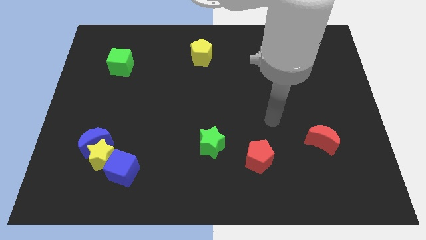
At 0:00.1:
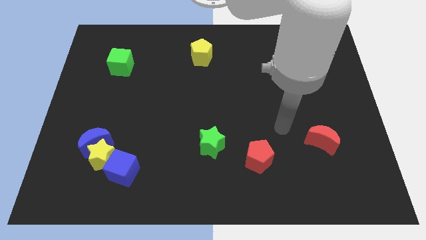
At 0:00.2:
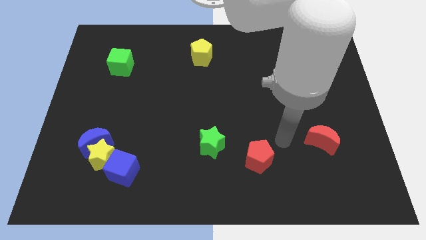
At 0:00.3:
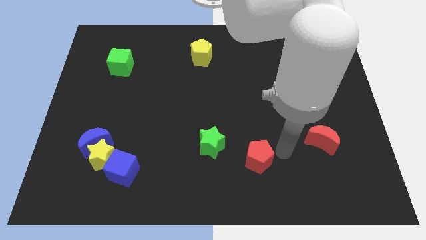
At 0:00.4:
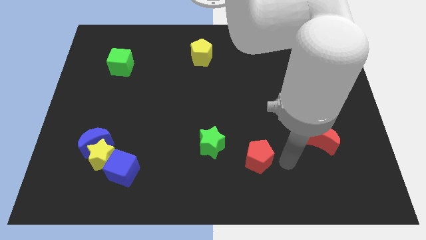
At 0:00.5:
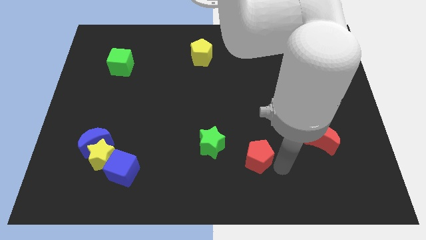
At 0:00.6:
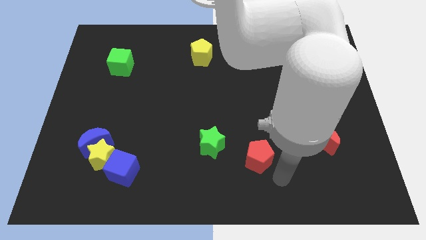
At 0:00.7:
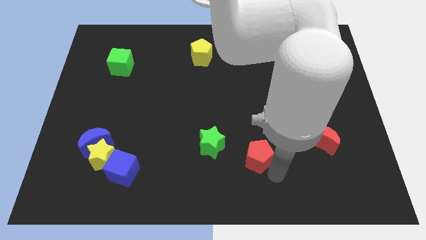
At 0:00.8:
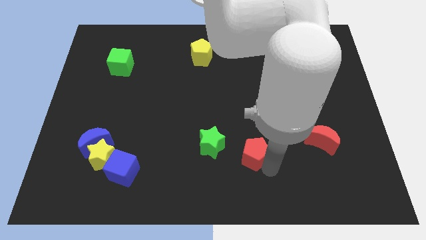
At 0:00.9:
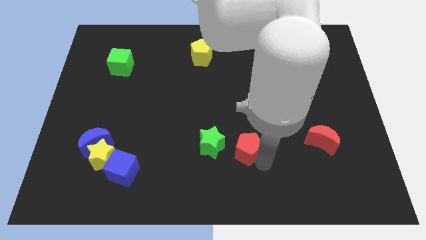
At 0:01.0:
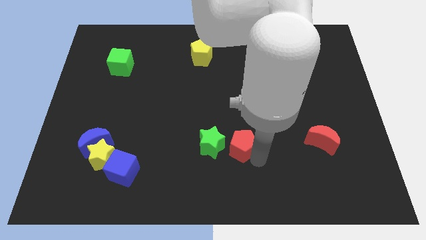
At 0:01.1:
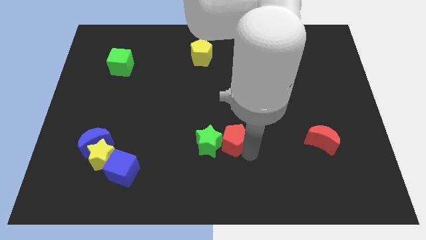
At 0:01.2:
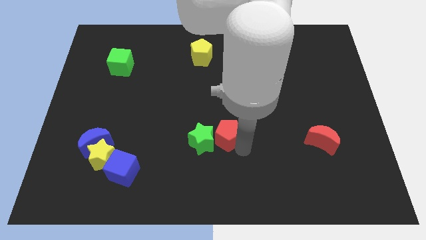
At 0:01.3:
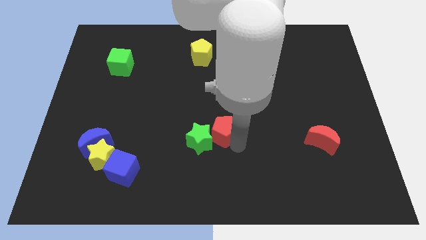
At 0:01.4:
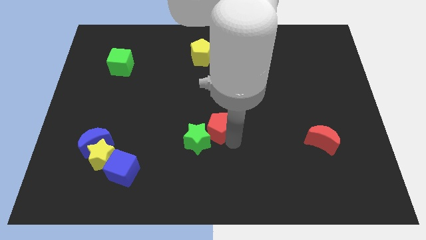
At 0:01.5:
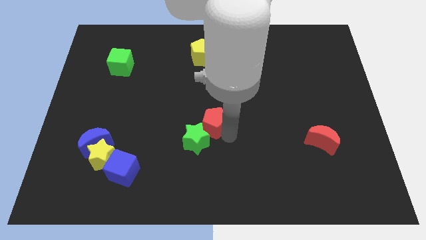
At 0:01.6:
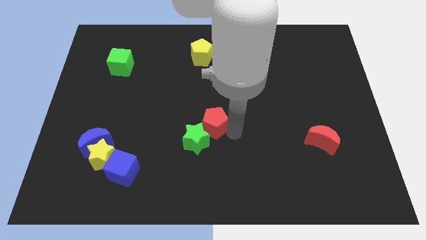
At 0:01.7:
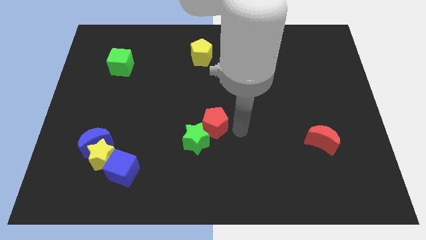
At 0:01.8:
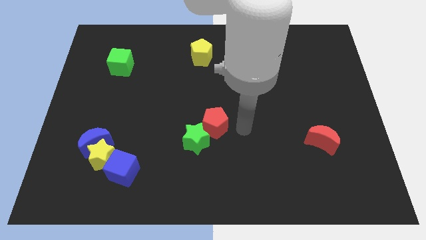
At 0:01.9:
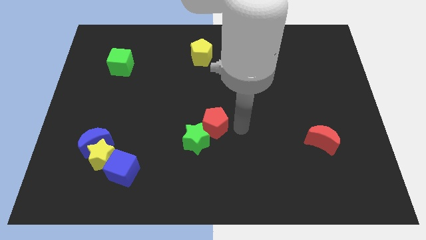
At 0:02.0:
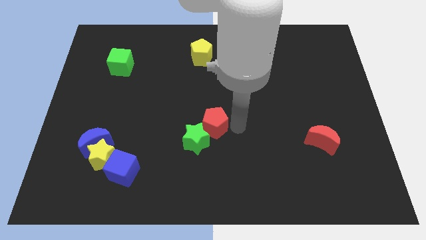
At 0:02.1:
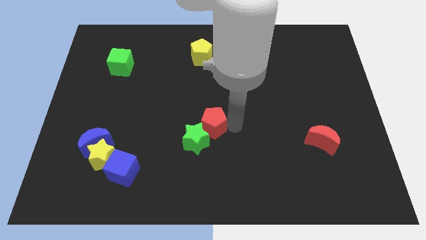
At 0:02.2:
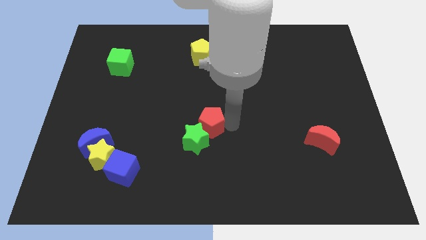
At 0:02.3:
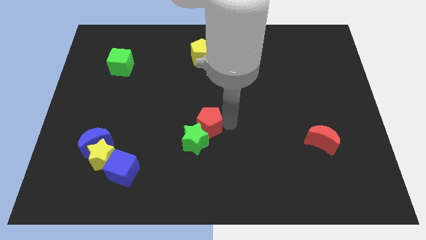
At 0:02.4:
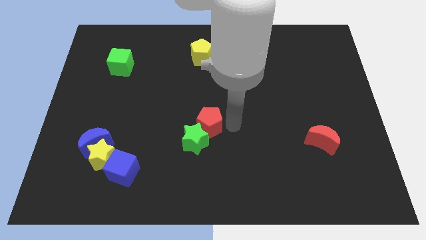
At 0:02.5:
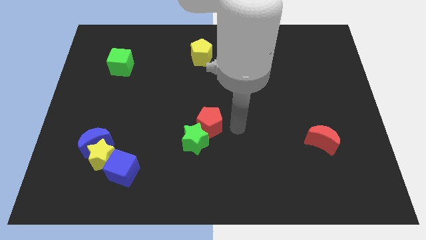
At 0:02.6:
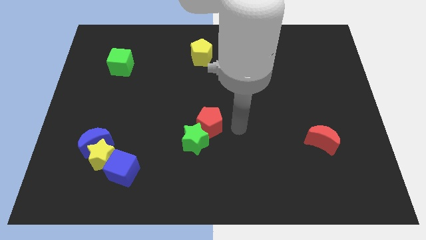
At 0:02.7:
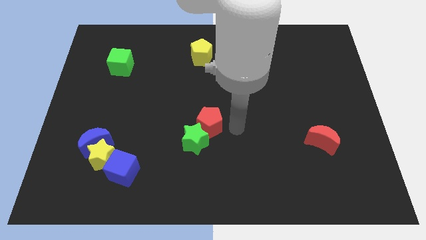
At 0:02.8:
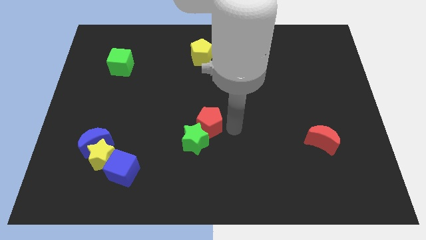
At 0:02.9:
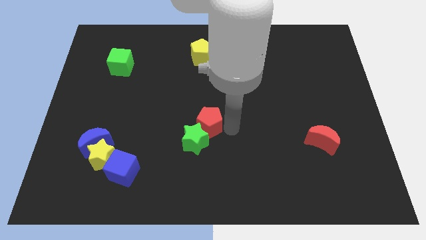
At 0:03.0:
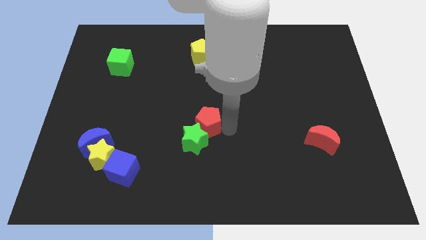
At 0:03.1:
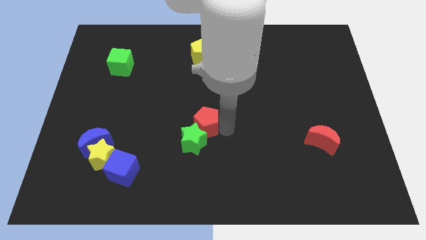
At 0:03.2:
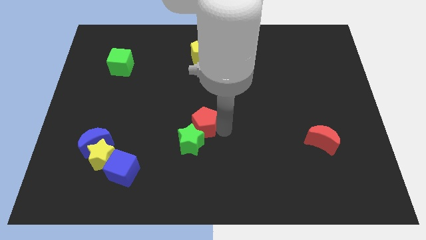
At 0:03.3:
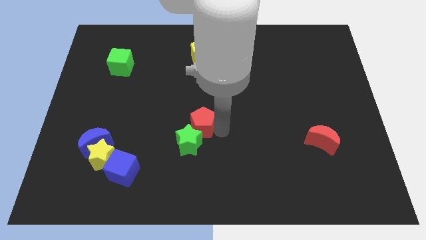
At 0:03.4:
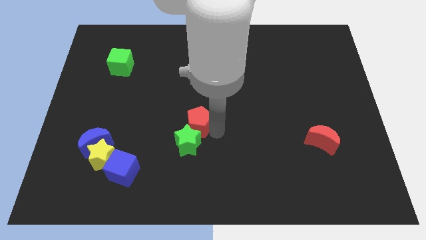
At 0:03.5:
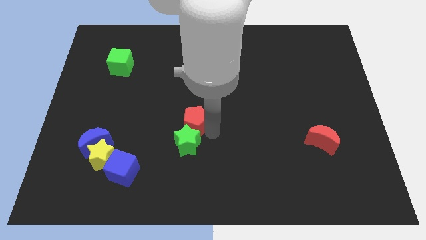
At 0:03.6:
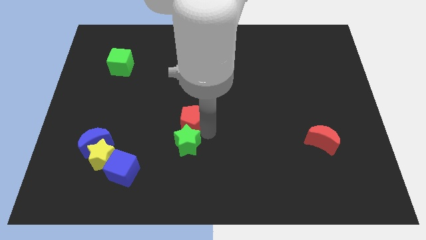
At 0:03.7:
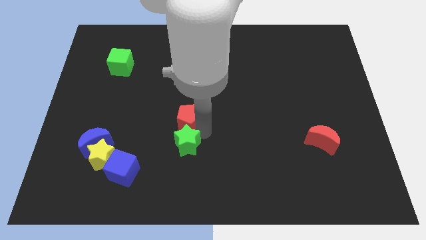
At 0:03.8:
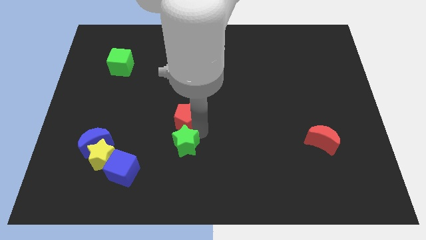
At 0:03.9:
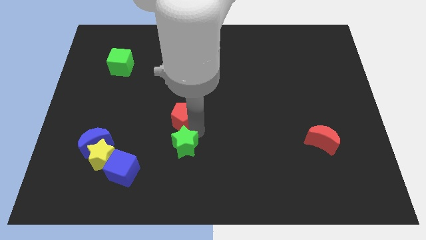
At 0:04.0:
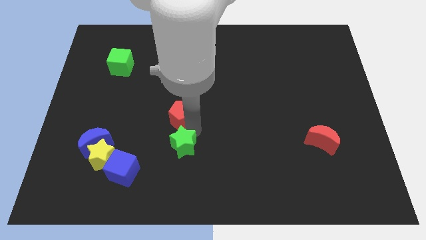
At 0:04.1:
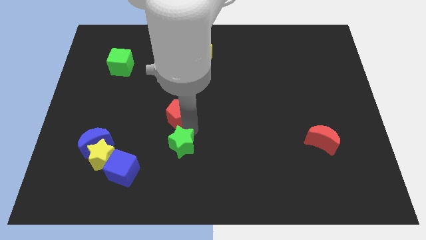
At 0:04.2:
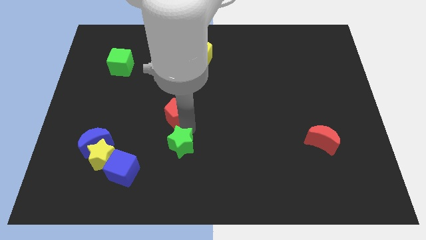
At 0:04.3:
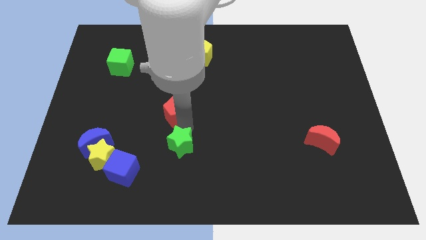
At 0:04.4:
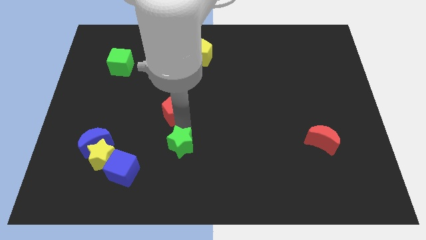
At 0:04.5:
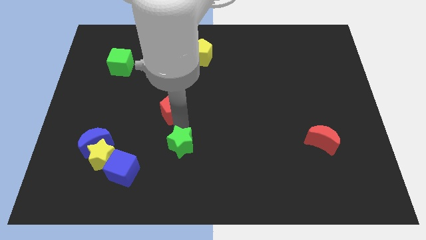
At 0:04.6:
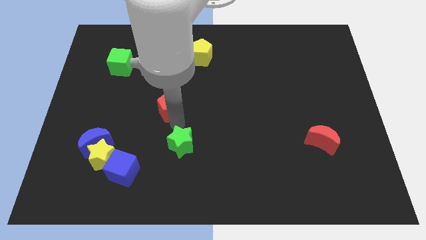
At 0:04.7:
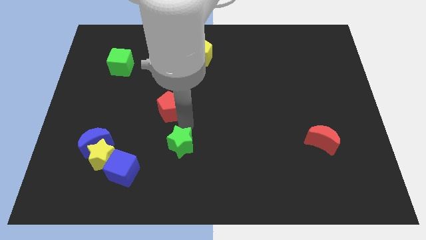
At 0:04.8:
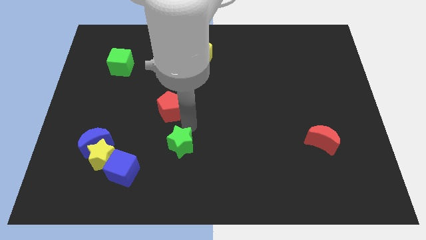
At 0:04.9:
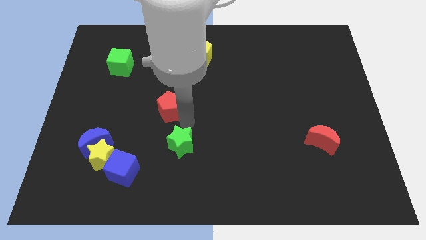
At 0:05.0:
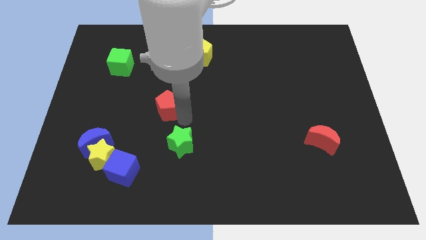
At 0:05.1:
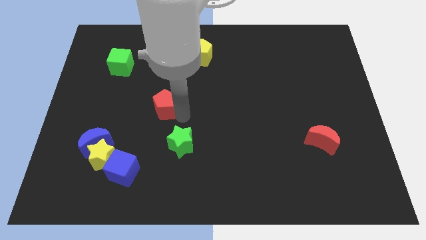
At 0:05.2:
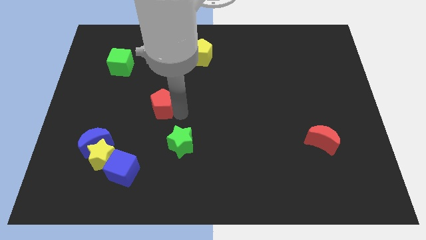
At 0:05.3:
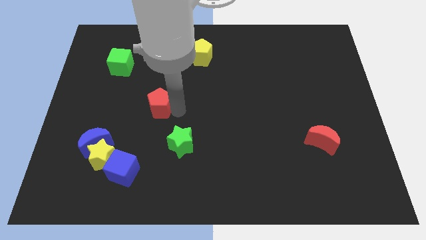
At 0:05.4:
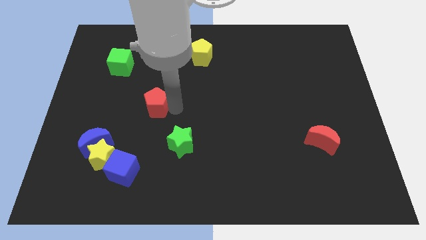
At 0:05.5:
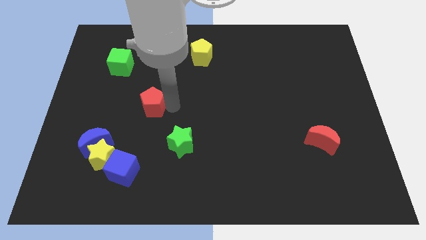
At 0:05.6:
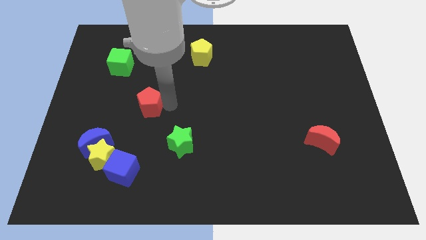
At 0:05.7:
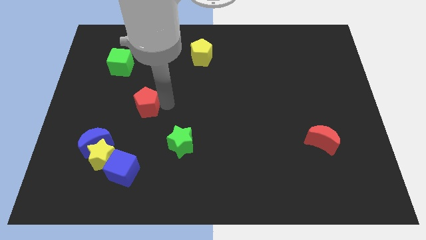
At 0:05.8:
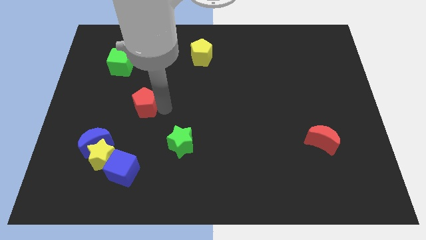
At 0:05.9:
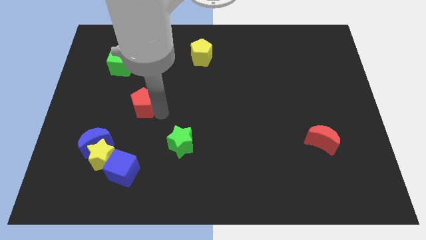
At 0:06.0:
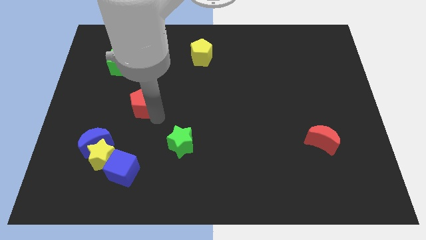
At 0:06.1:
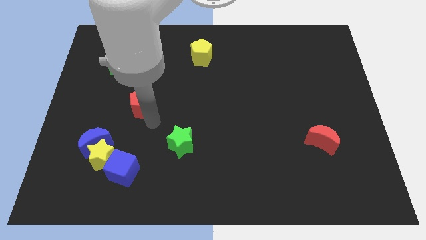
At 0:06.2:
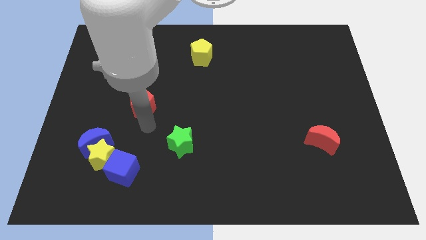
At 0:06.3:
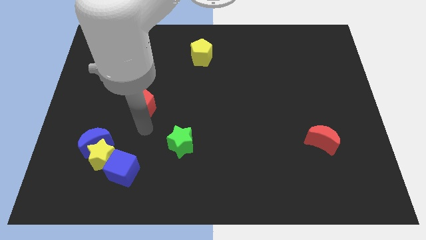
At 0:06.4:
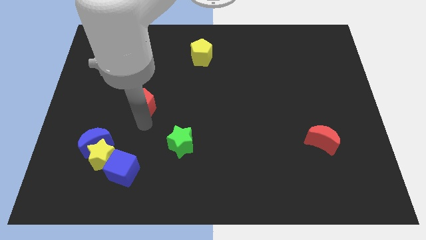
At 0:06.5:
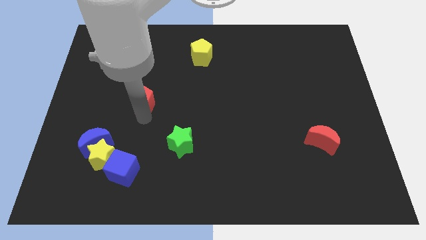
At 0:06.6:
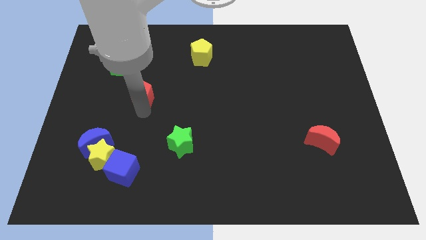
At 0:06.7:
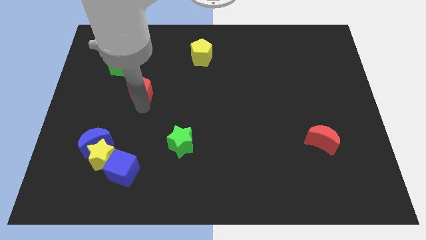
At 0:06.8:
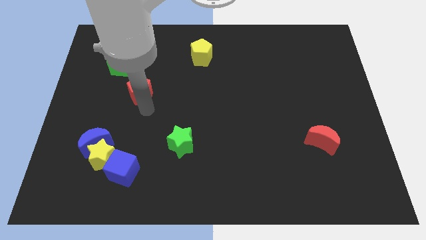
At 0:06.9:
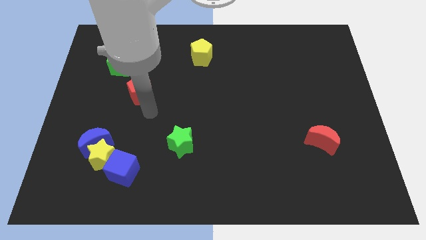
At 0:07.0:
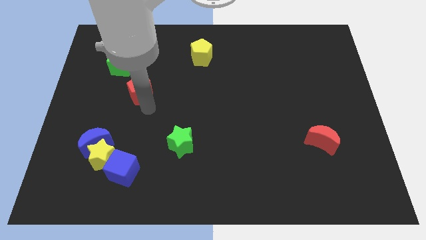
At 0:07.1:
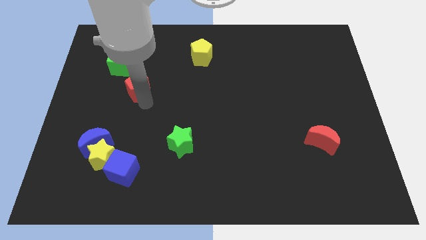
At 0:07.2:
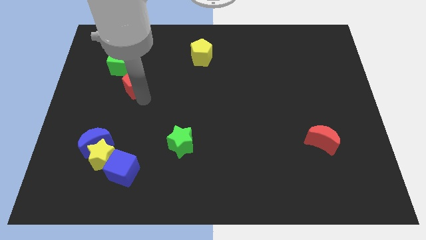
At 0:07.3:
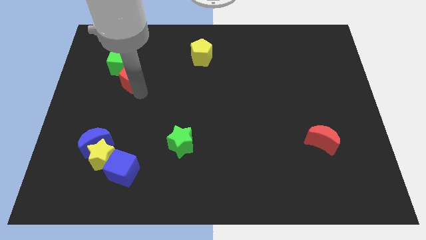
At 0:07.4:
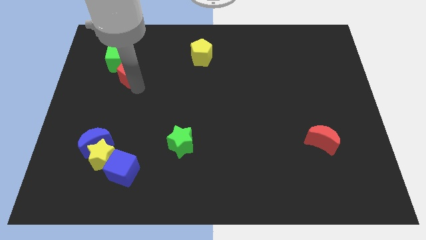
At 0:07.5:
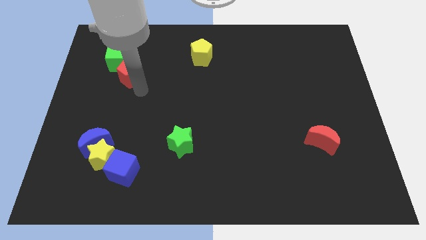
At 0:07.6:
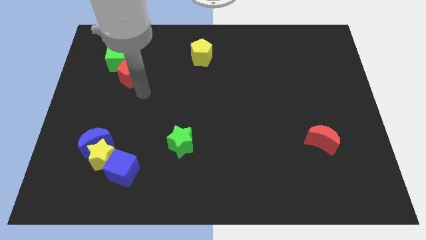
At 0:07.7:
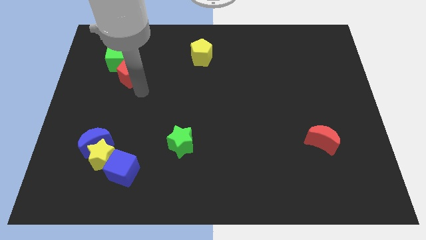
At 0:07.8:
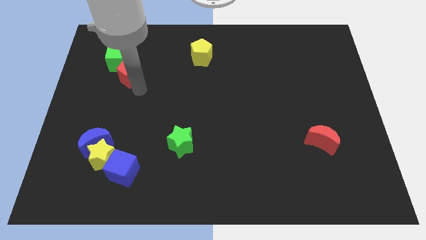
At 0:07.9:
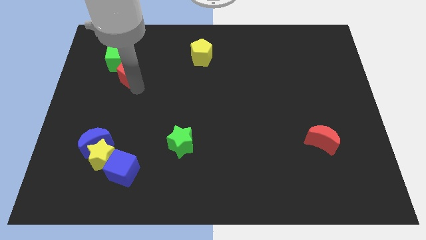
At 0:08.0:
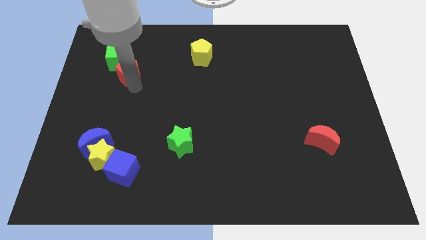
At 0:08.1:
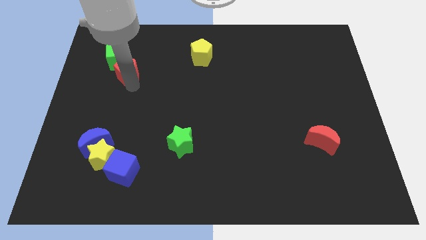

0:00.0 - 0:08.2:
put the red pentagon close to the green cube
